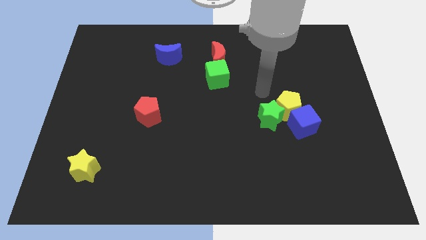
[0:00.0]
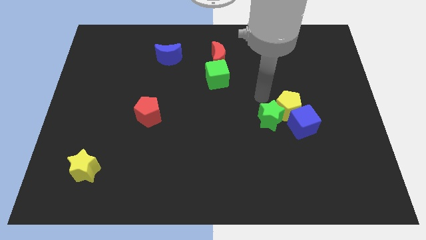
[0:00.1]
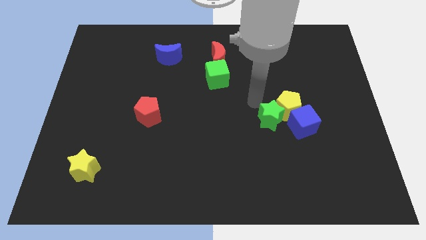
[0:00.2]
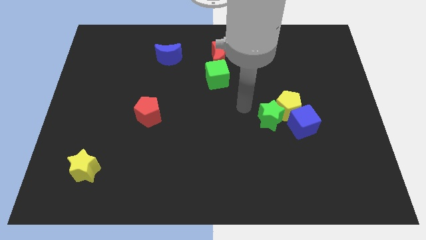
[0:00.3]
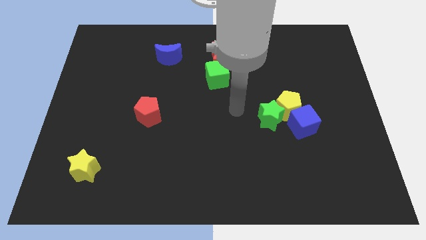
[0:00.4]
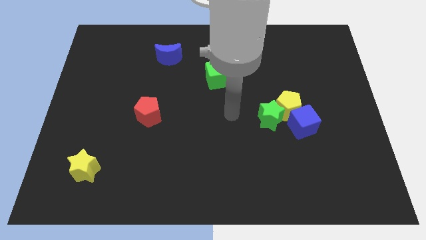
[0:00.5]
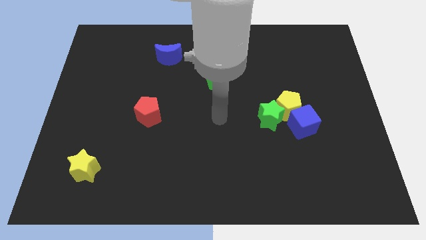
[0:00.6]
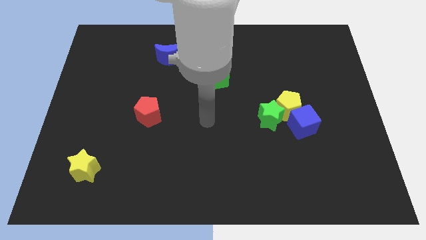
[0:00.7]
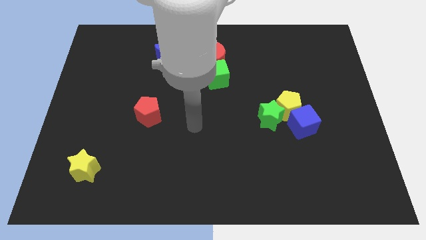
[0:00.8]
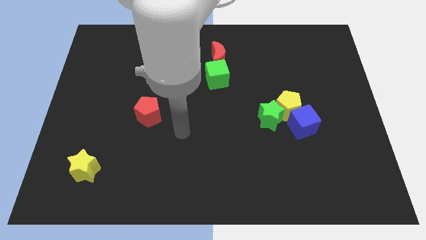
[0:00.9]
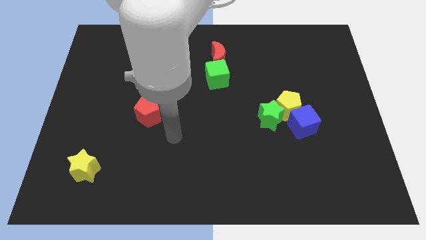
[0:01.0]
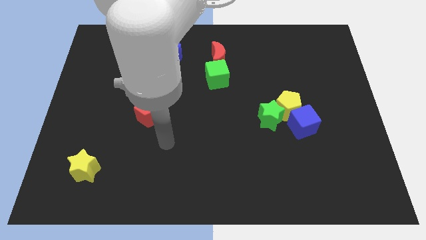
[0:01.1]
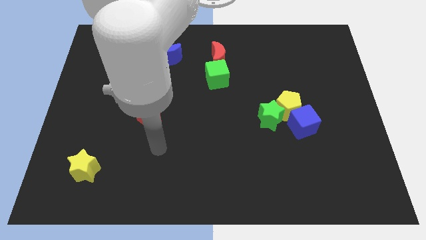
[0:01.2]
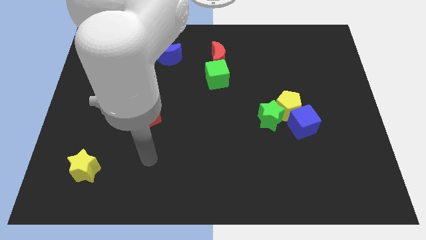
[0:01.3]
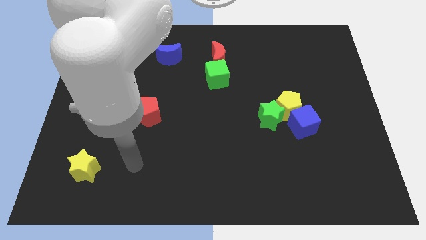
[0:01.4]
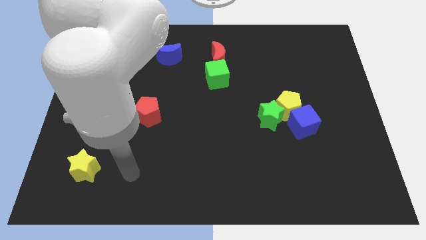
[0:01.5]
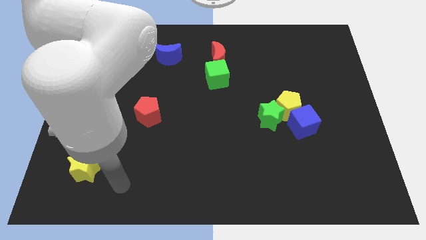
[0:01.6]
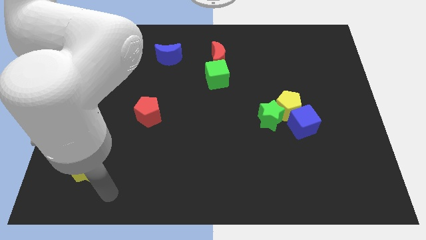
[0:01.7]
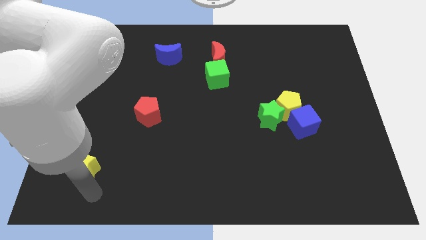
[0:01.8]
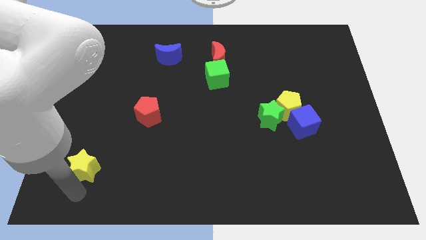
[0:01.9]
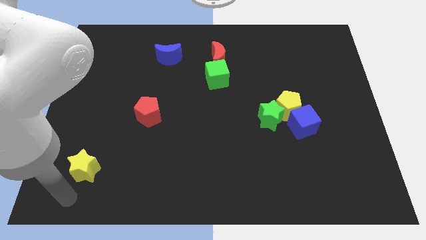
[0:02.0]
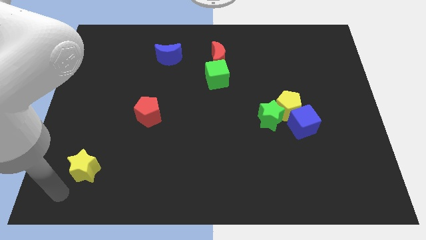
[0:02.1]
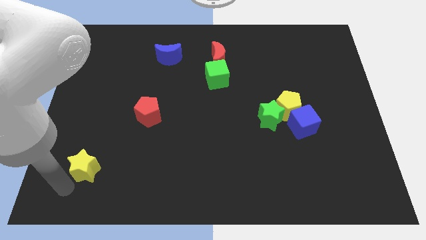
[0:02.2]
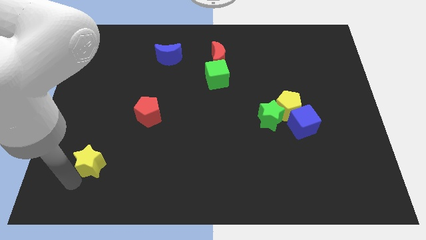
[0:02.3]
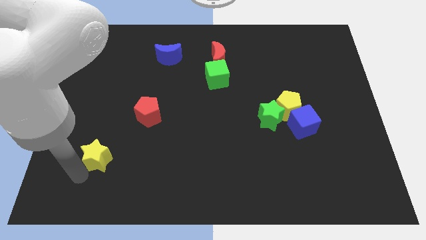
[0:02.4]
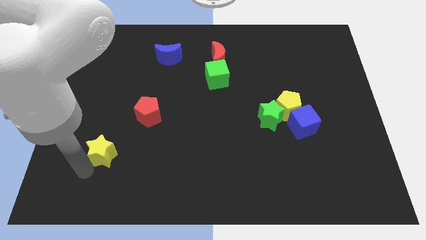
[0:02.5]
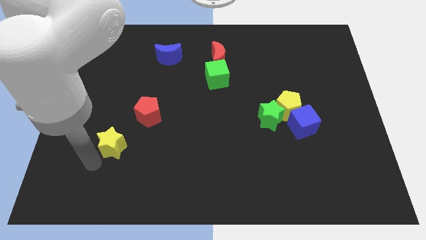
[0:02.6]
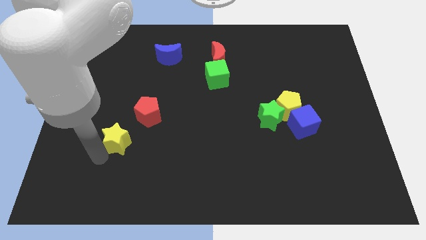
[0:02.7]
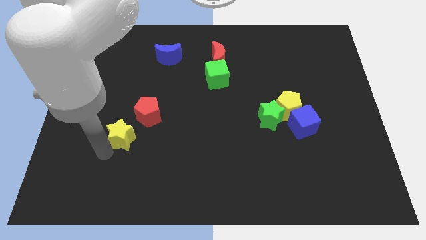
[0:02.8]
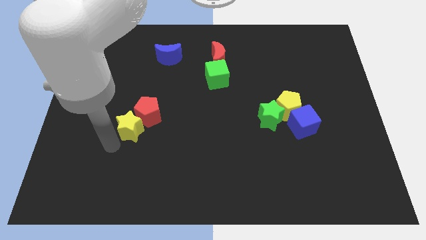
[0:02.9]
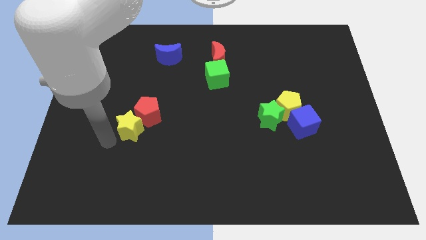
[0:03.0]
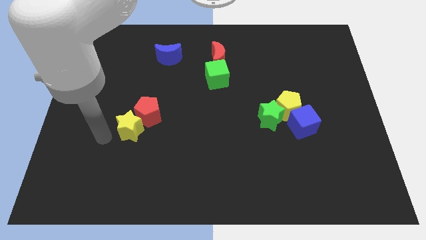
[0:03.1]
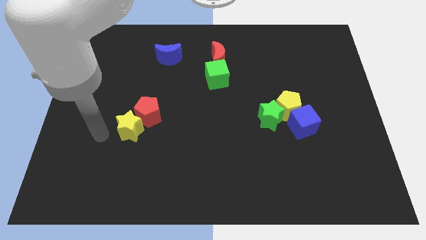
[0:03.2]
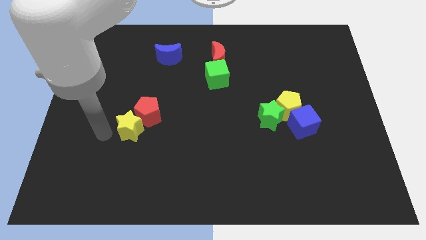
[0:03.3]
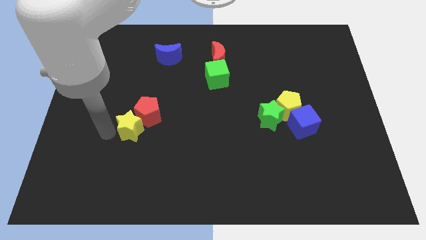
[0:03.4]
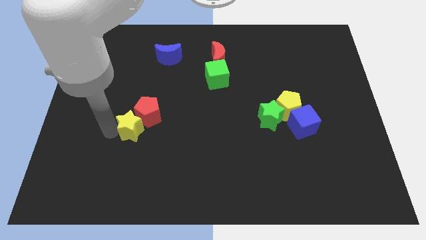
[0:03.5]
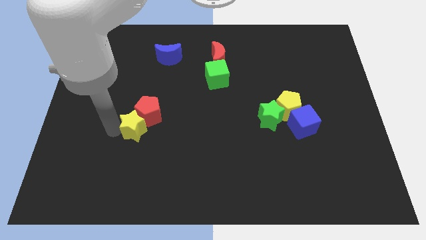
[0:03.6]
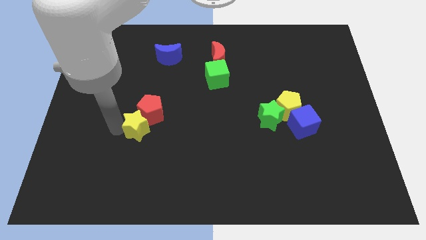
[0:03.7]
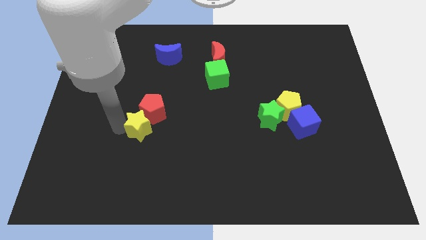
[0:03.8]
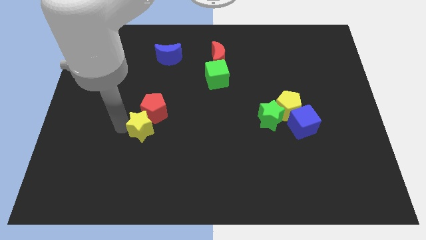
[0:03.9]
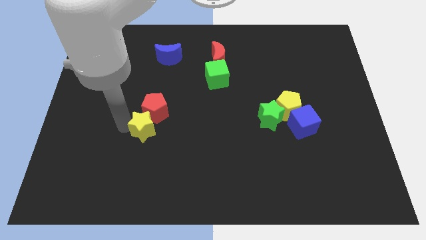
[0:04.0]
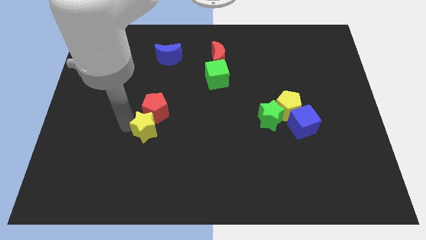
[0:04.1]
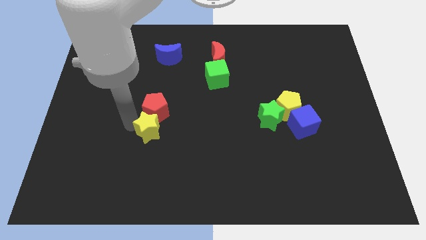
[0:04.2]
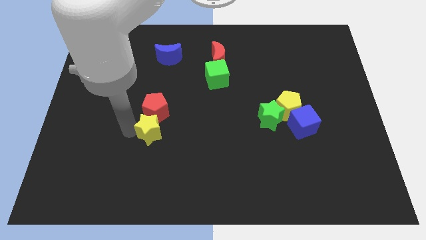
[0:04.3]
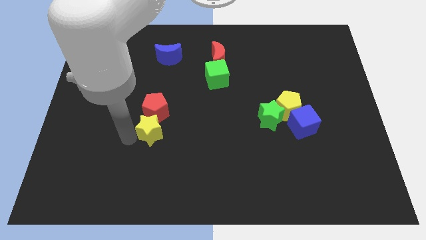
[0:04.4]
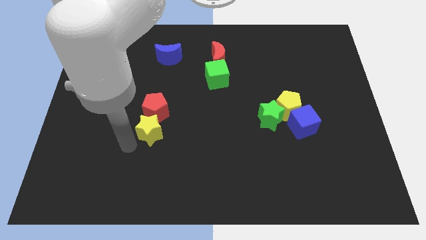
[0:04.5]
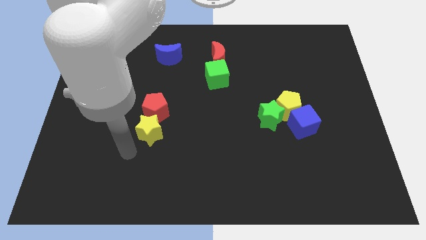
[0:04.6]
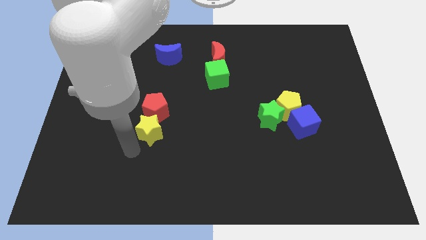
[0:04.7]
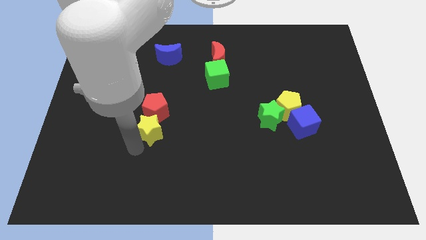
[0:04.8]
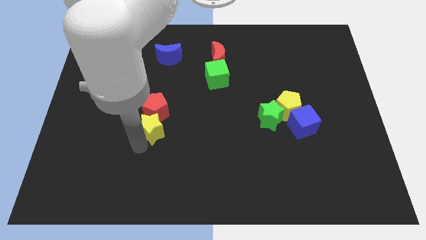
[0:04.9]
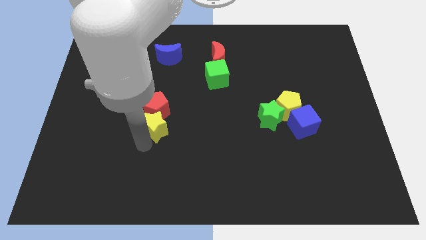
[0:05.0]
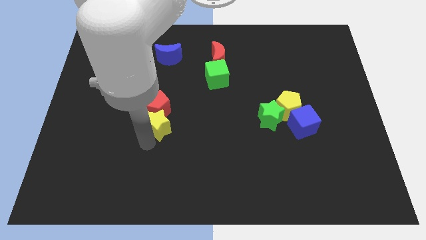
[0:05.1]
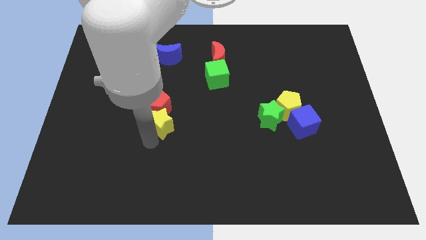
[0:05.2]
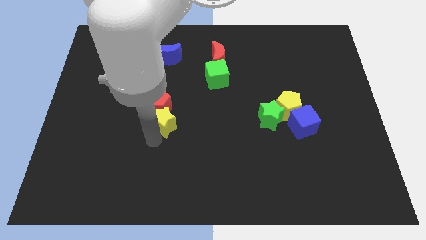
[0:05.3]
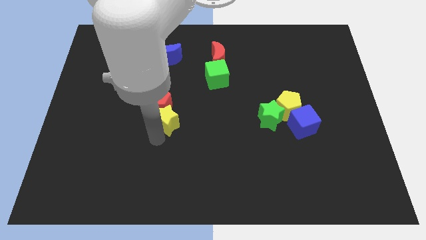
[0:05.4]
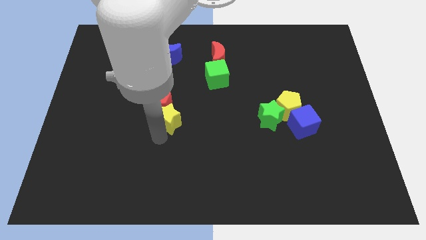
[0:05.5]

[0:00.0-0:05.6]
move the yellow star up and right diagonally

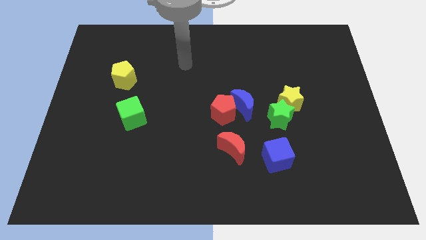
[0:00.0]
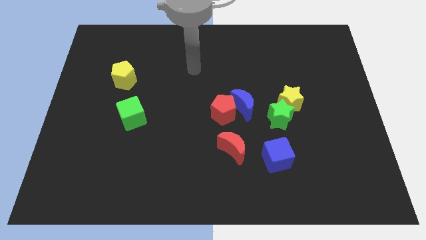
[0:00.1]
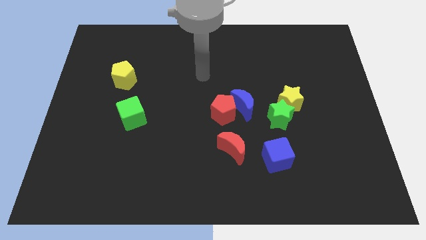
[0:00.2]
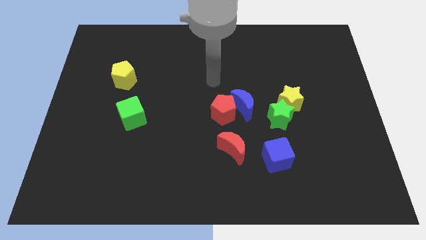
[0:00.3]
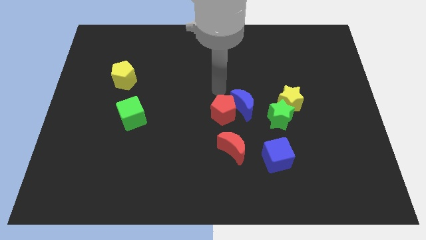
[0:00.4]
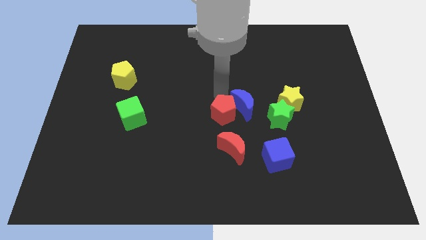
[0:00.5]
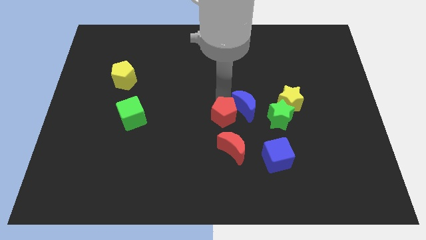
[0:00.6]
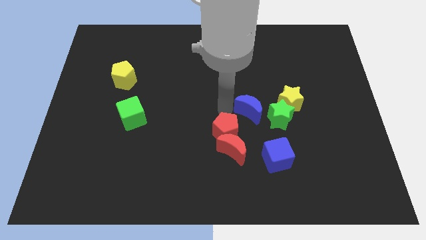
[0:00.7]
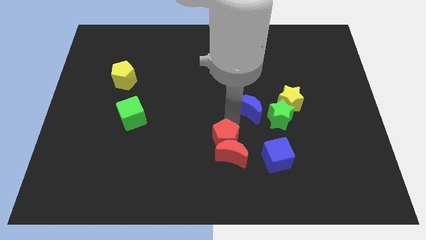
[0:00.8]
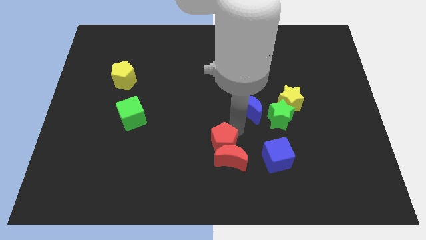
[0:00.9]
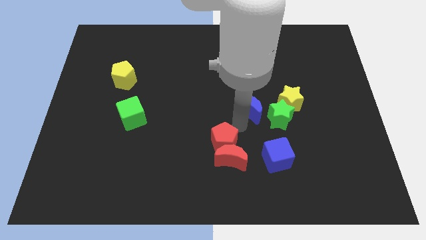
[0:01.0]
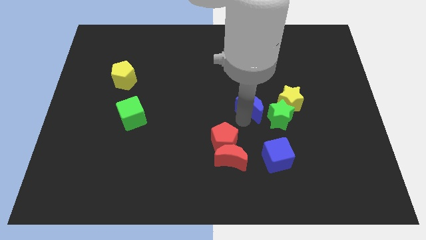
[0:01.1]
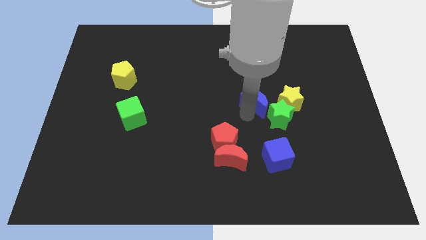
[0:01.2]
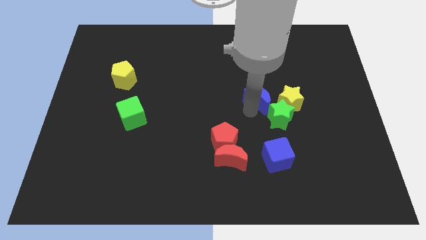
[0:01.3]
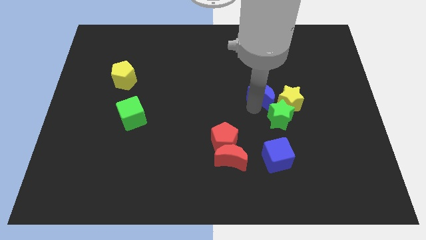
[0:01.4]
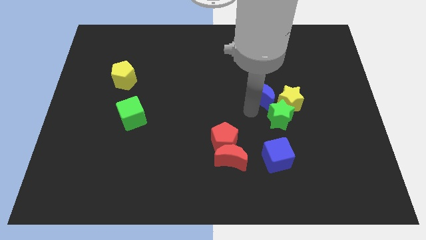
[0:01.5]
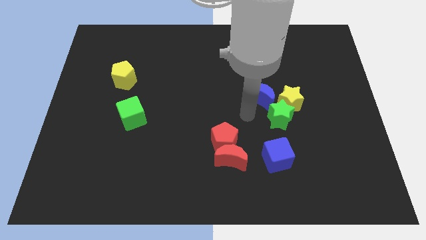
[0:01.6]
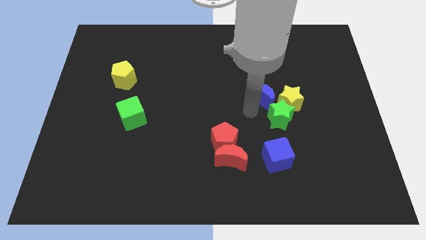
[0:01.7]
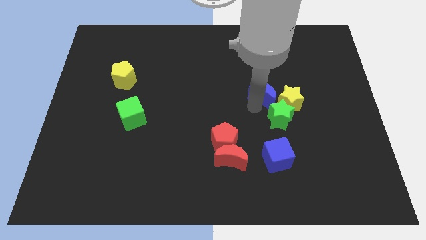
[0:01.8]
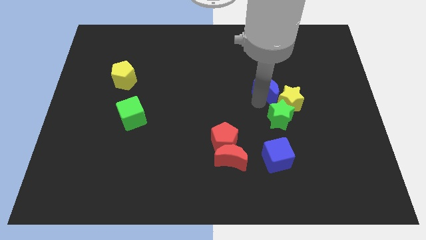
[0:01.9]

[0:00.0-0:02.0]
move the blue moon a little bit up and then to the right

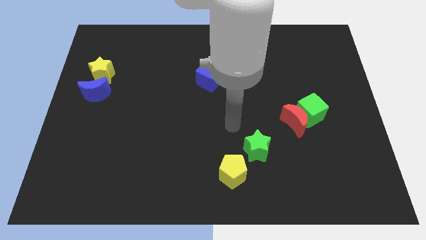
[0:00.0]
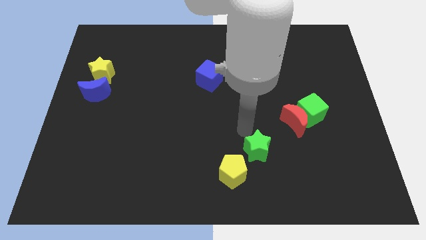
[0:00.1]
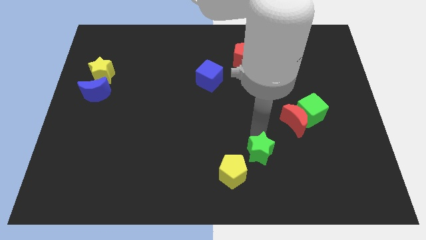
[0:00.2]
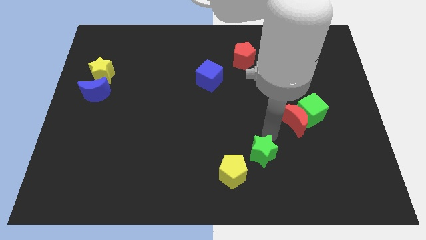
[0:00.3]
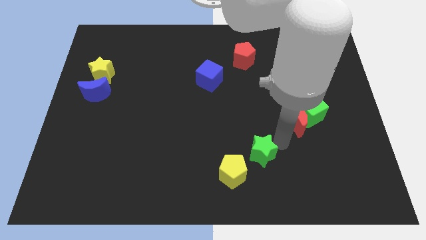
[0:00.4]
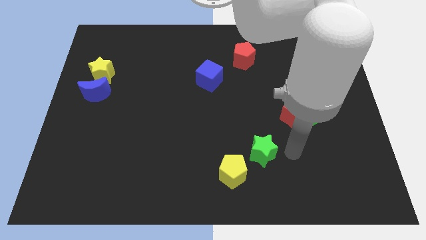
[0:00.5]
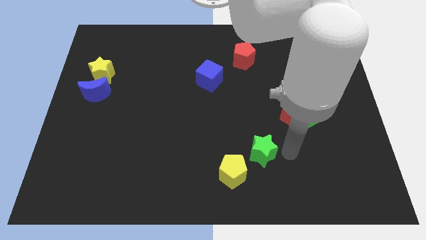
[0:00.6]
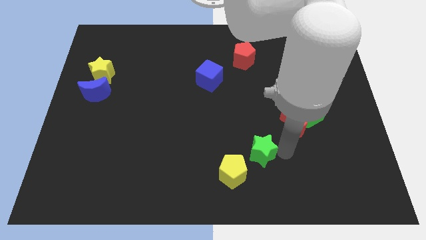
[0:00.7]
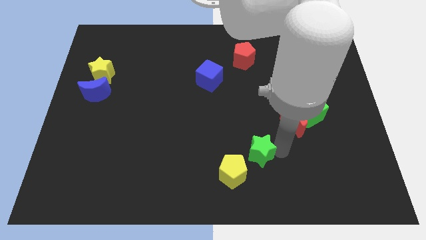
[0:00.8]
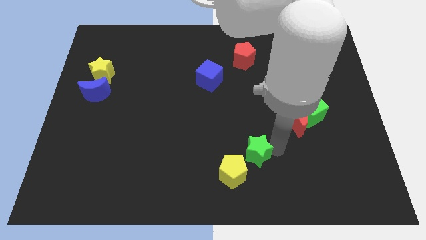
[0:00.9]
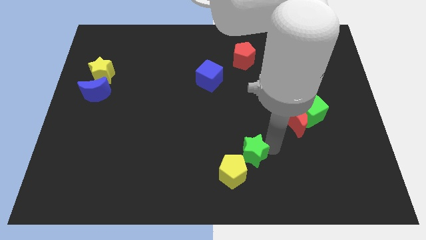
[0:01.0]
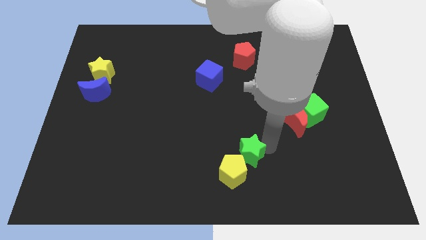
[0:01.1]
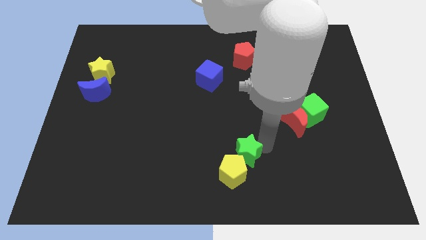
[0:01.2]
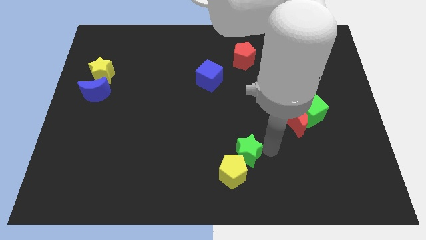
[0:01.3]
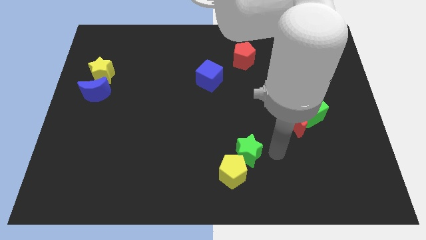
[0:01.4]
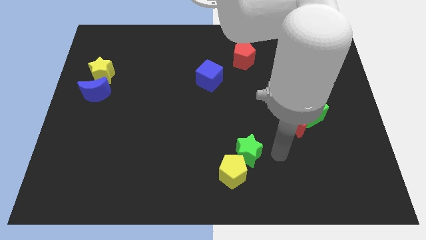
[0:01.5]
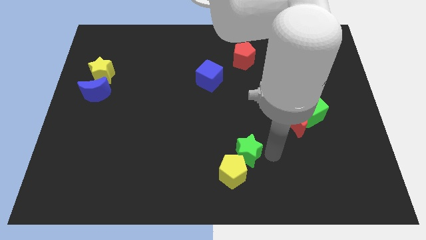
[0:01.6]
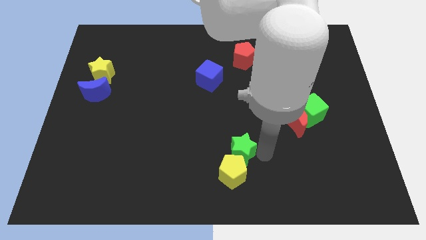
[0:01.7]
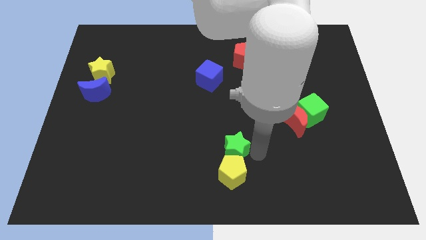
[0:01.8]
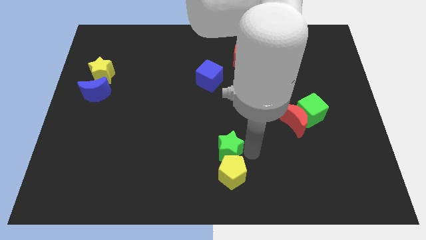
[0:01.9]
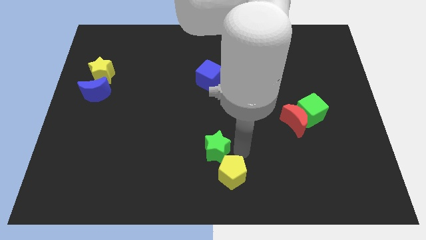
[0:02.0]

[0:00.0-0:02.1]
slightly move the green star to the left
